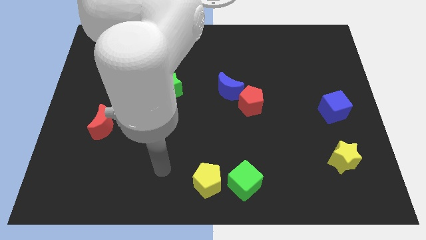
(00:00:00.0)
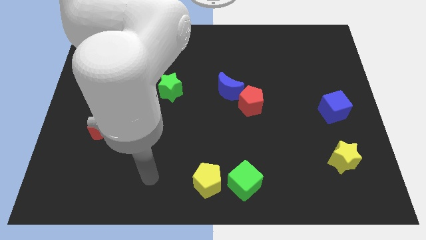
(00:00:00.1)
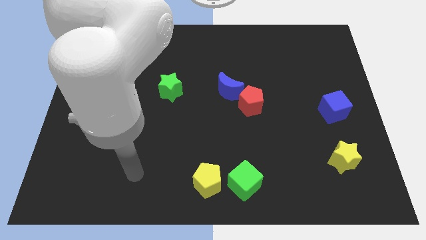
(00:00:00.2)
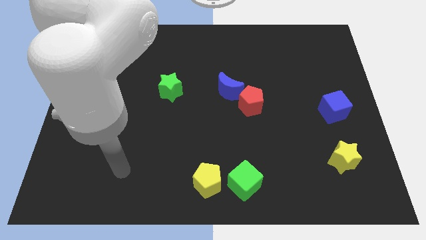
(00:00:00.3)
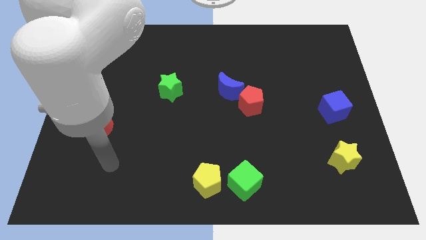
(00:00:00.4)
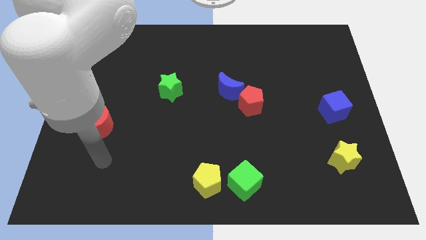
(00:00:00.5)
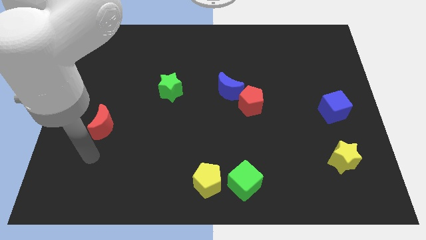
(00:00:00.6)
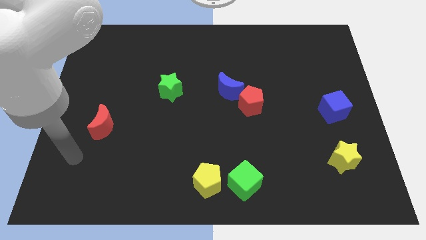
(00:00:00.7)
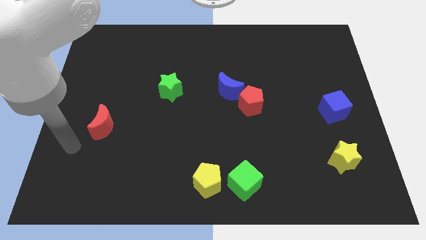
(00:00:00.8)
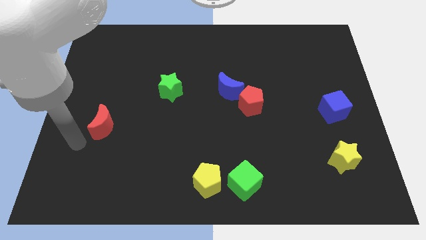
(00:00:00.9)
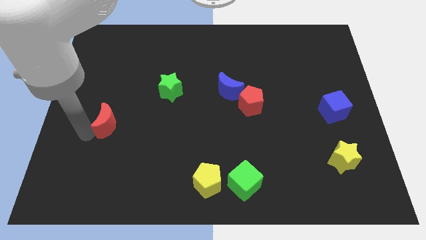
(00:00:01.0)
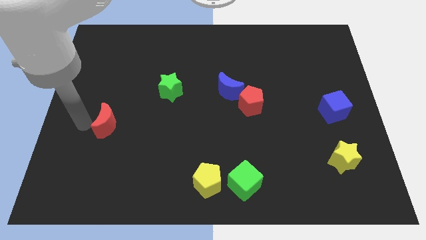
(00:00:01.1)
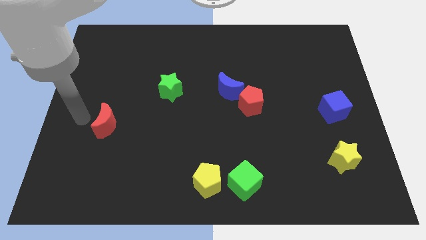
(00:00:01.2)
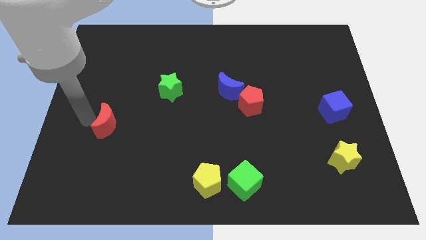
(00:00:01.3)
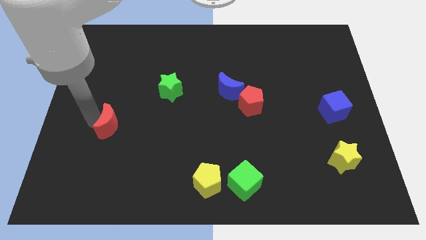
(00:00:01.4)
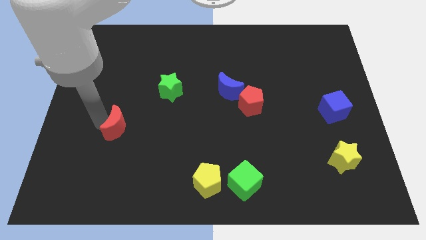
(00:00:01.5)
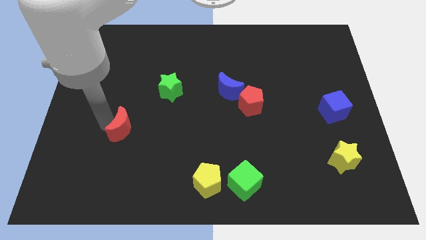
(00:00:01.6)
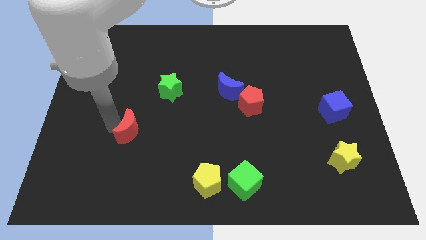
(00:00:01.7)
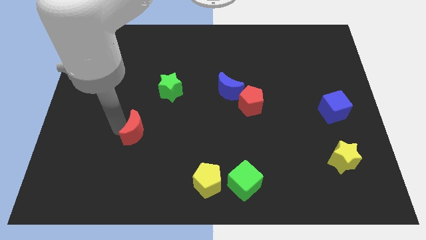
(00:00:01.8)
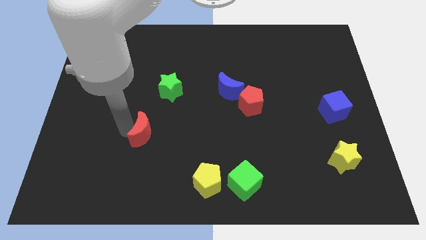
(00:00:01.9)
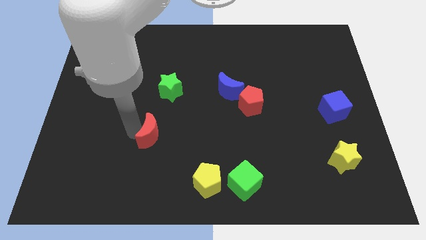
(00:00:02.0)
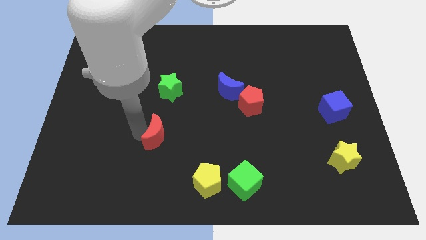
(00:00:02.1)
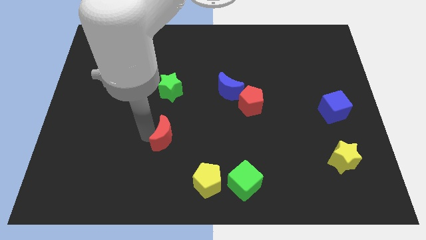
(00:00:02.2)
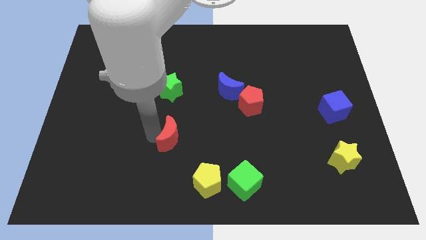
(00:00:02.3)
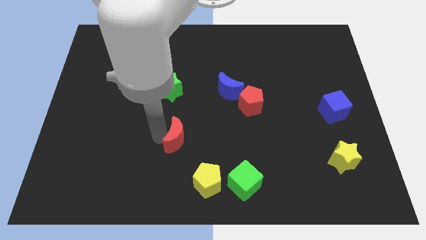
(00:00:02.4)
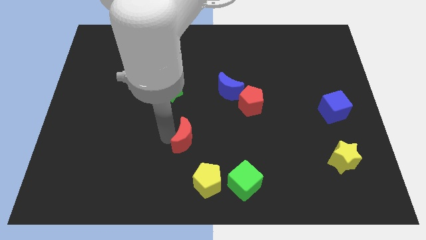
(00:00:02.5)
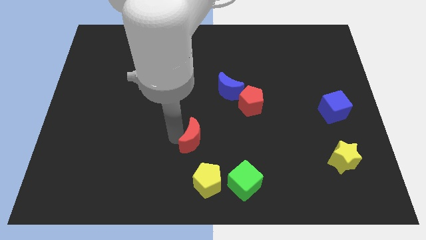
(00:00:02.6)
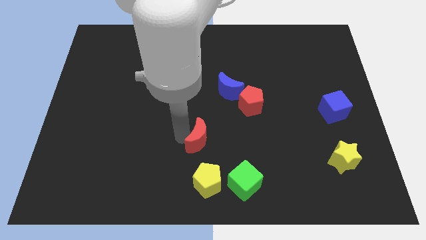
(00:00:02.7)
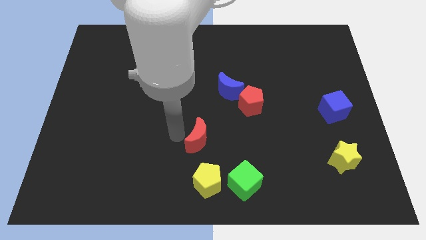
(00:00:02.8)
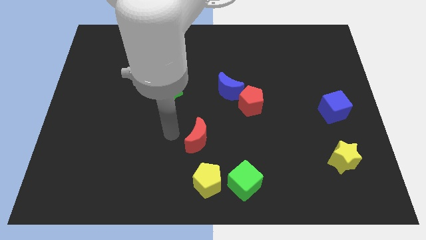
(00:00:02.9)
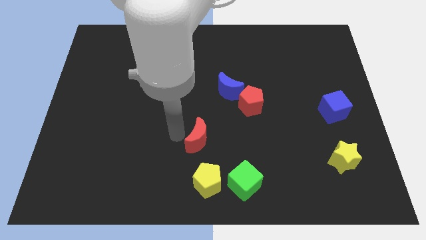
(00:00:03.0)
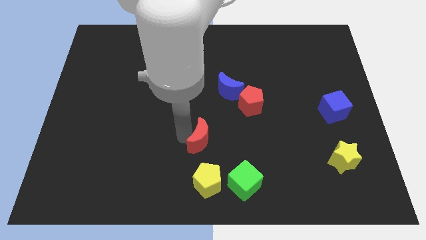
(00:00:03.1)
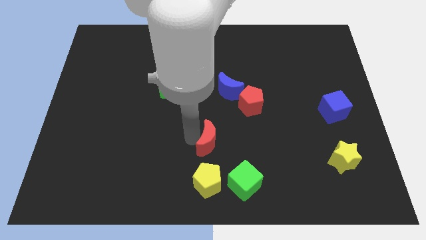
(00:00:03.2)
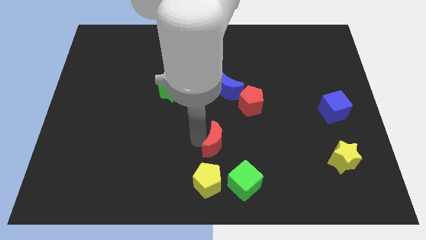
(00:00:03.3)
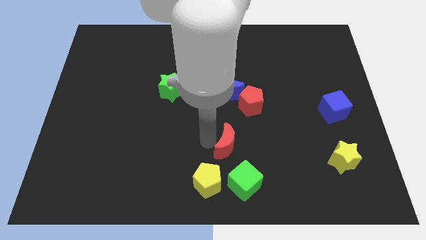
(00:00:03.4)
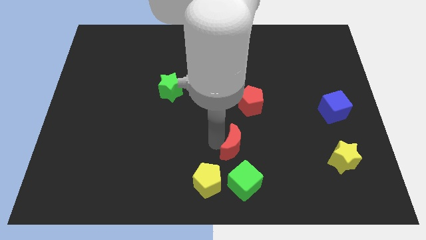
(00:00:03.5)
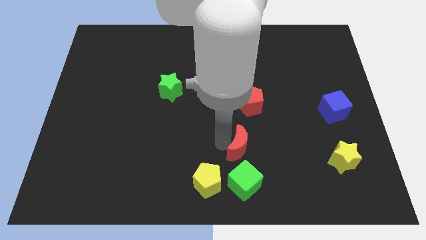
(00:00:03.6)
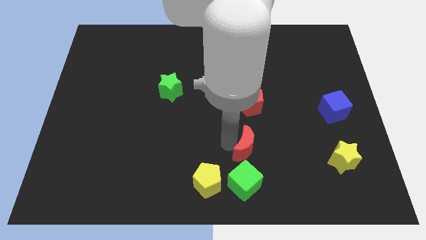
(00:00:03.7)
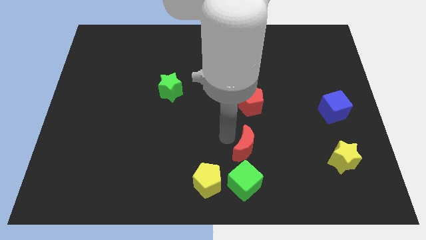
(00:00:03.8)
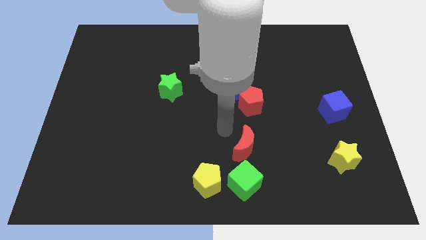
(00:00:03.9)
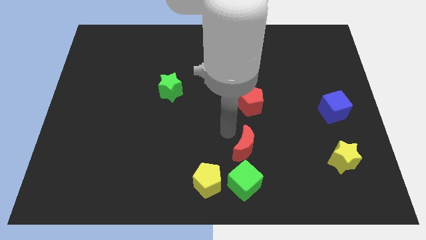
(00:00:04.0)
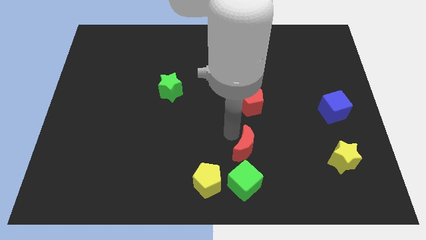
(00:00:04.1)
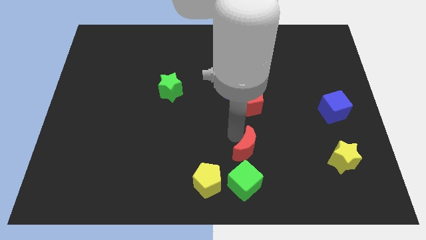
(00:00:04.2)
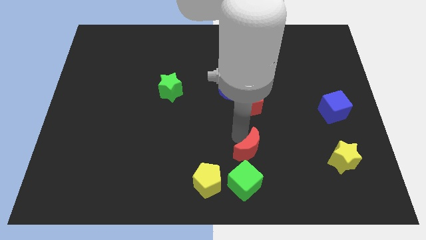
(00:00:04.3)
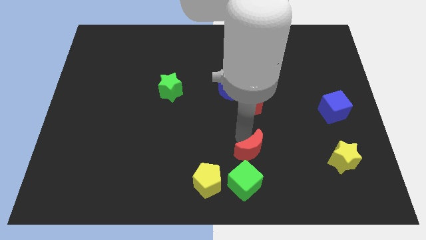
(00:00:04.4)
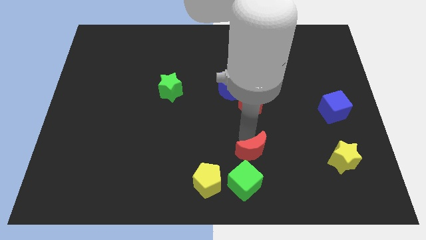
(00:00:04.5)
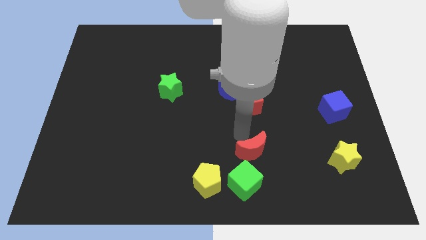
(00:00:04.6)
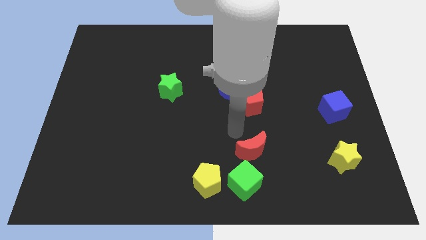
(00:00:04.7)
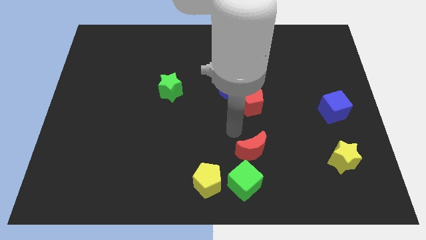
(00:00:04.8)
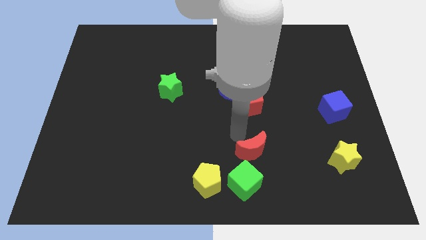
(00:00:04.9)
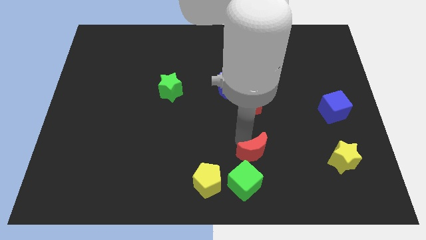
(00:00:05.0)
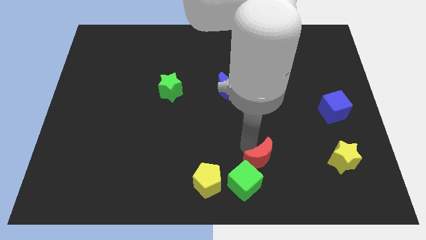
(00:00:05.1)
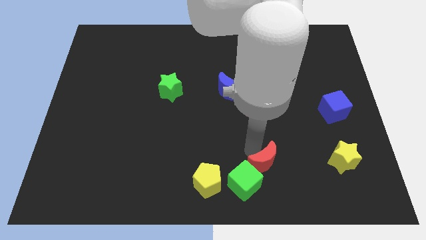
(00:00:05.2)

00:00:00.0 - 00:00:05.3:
move the red moon to the right side of the green cube

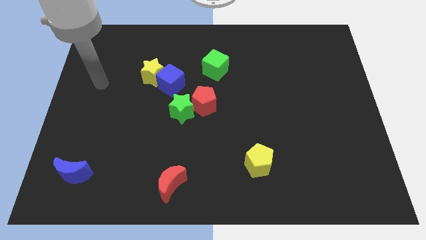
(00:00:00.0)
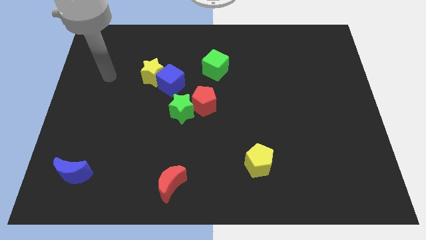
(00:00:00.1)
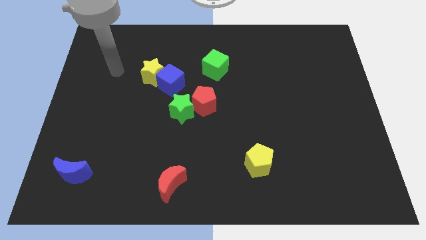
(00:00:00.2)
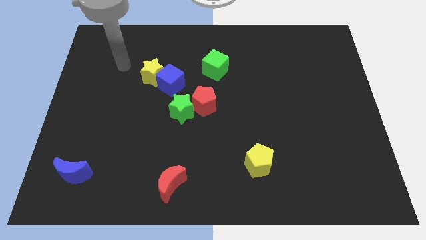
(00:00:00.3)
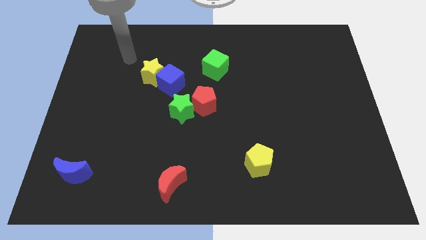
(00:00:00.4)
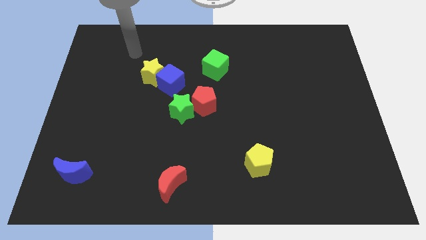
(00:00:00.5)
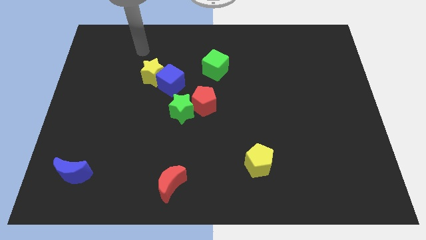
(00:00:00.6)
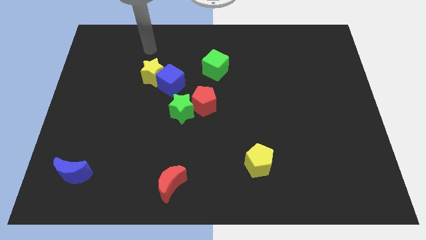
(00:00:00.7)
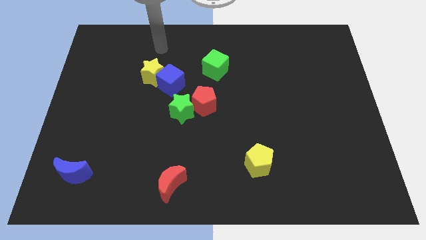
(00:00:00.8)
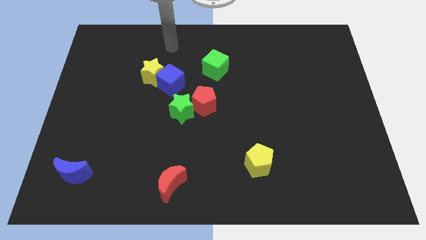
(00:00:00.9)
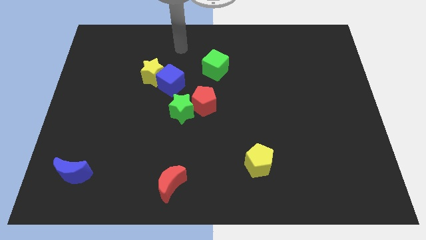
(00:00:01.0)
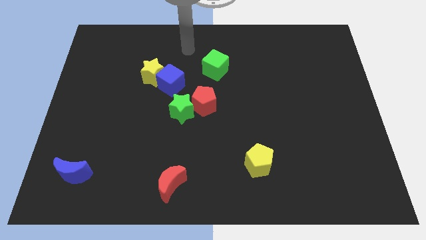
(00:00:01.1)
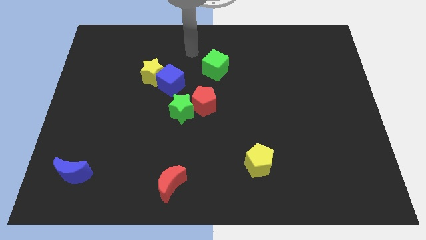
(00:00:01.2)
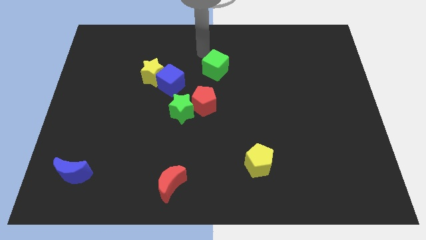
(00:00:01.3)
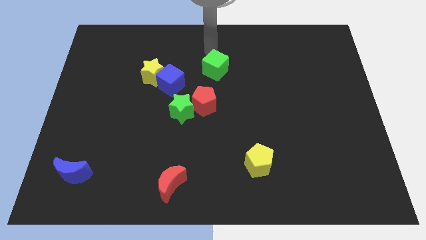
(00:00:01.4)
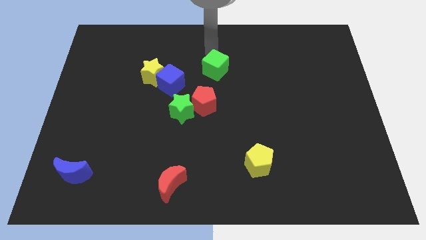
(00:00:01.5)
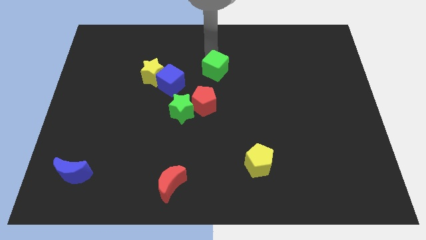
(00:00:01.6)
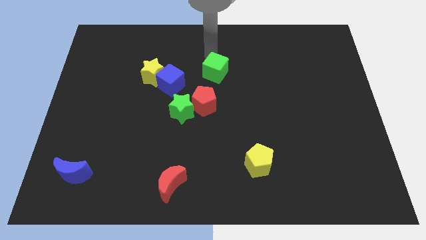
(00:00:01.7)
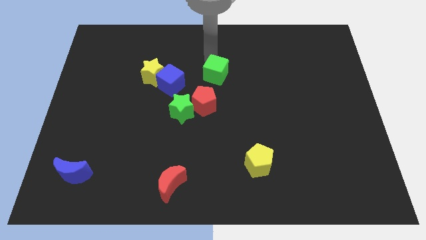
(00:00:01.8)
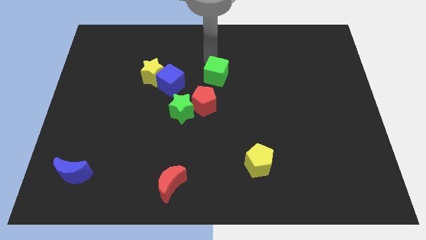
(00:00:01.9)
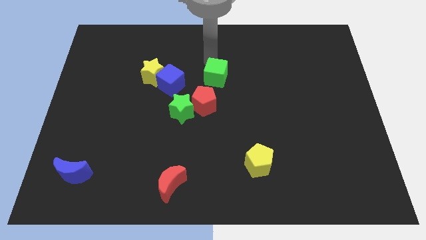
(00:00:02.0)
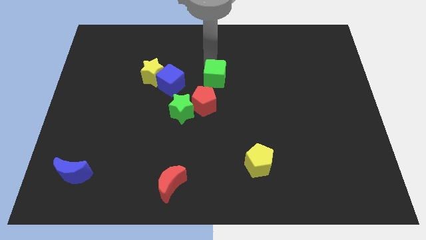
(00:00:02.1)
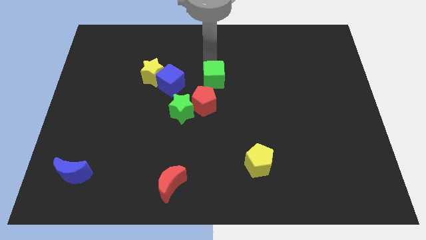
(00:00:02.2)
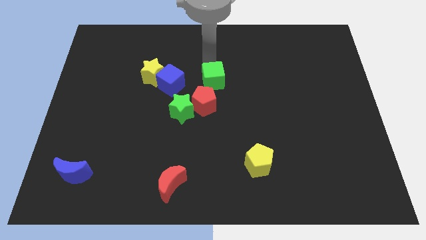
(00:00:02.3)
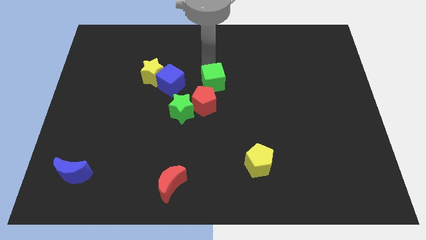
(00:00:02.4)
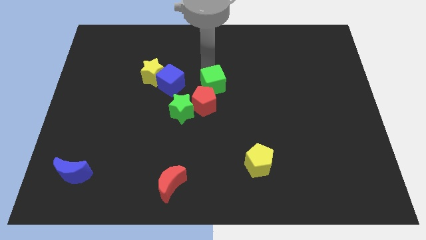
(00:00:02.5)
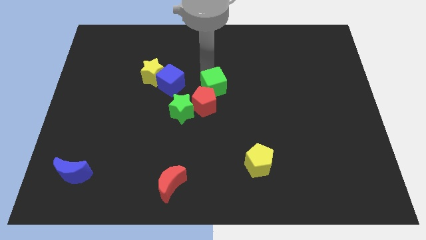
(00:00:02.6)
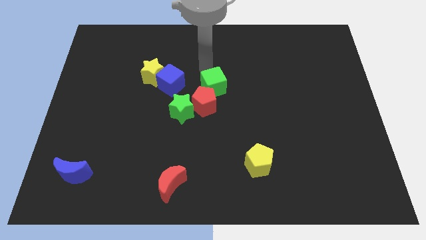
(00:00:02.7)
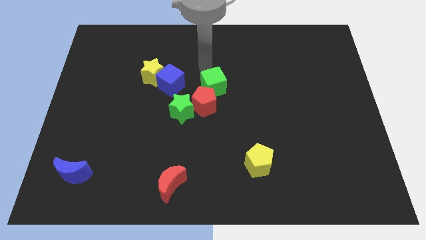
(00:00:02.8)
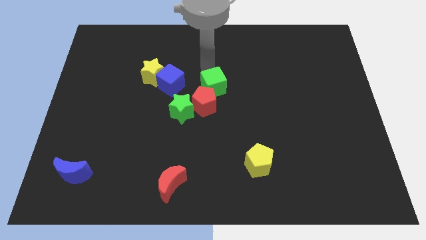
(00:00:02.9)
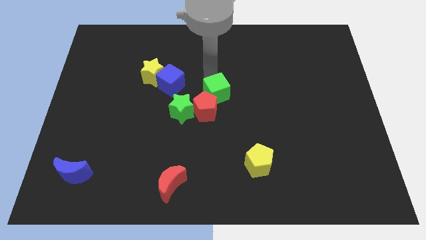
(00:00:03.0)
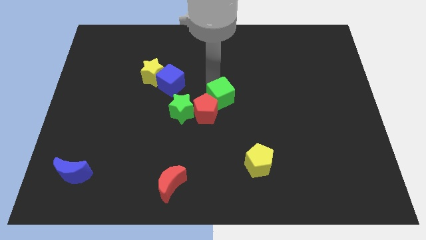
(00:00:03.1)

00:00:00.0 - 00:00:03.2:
put the green cube to the right of the green star
